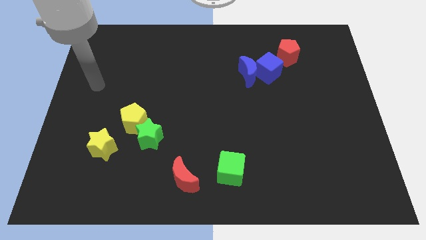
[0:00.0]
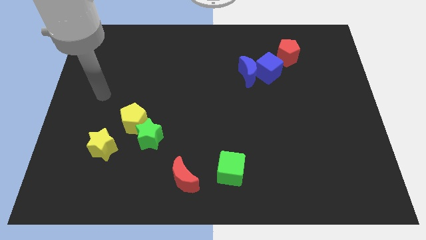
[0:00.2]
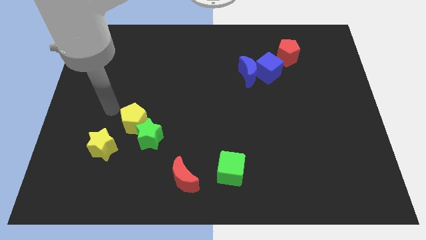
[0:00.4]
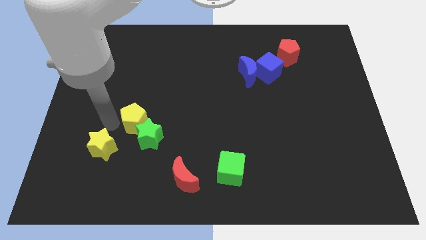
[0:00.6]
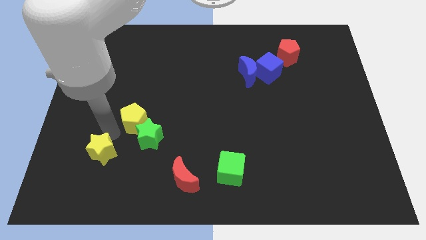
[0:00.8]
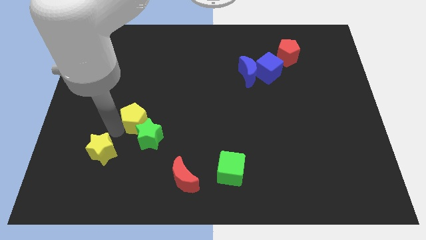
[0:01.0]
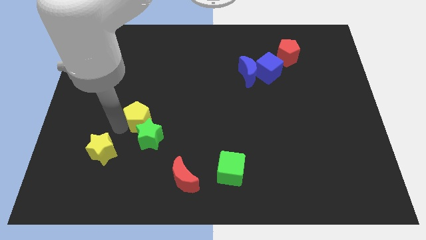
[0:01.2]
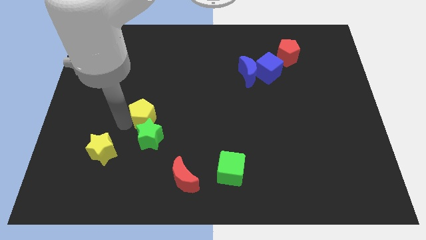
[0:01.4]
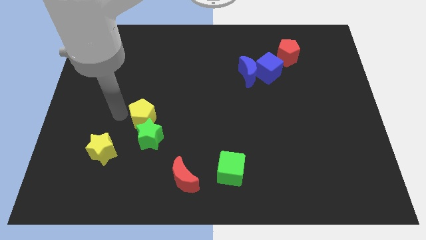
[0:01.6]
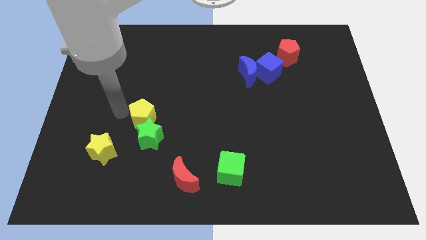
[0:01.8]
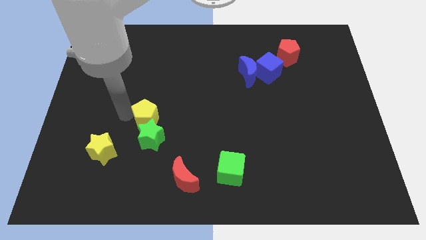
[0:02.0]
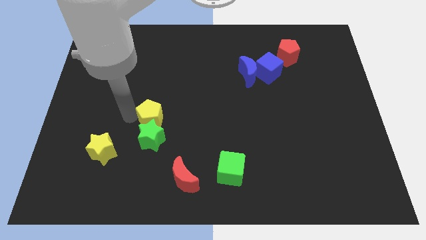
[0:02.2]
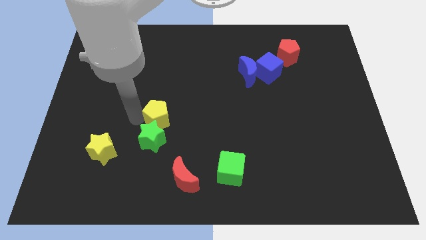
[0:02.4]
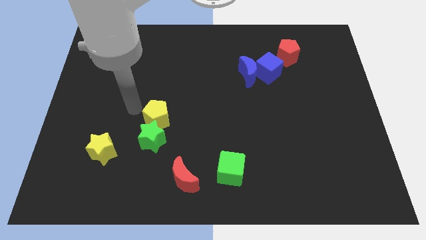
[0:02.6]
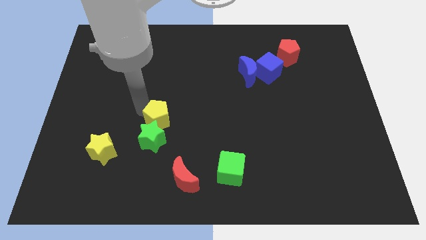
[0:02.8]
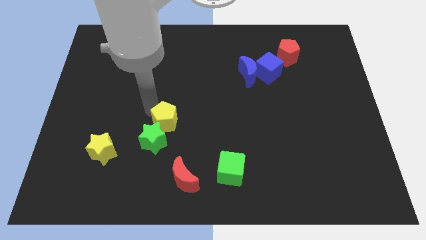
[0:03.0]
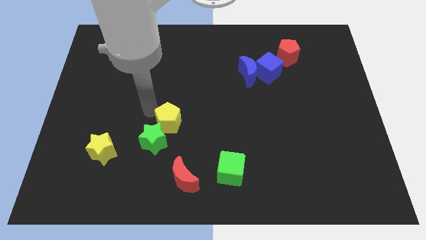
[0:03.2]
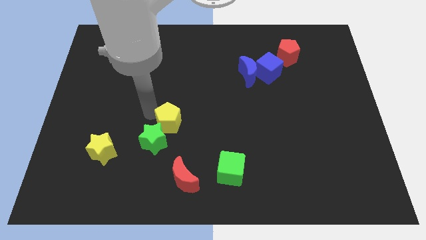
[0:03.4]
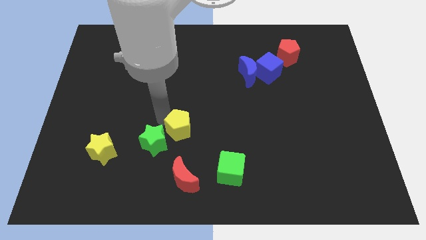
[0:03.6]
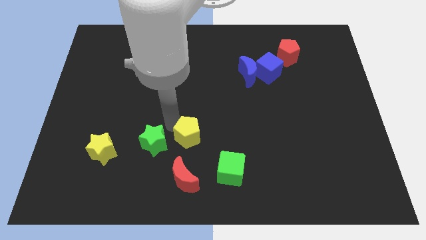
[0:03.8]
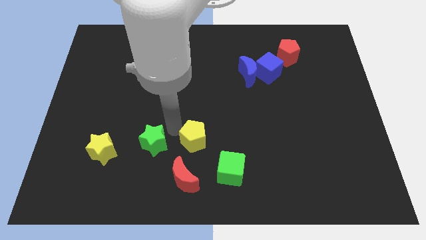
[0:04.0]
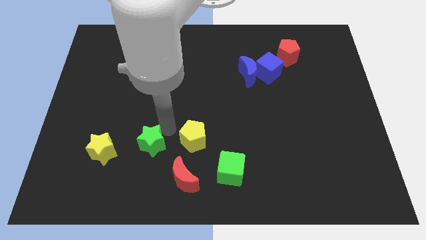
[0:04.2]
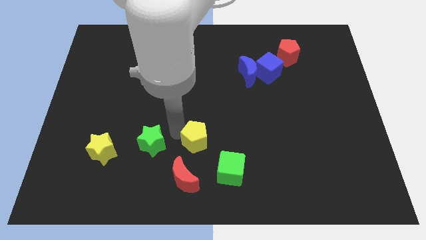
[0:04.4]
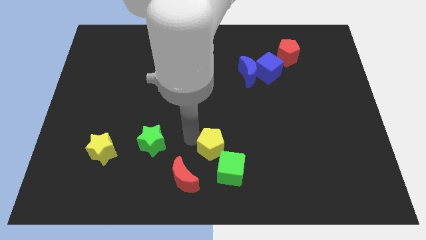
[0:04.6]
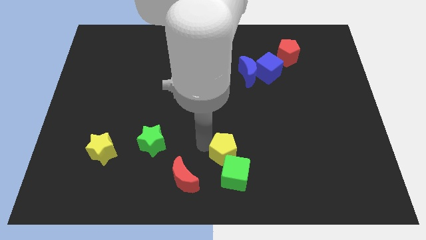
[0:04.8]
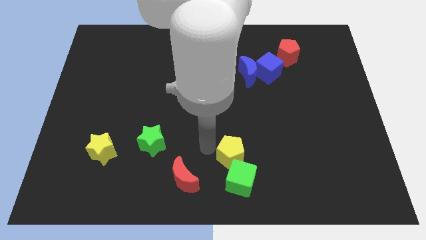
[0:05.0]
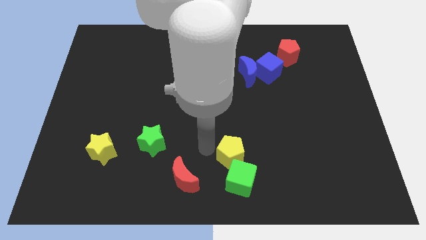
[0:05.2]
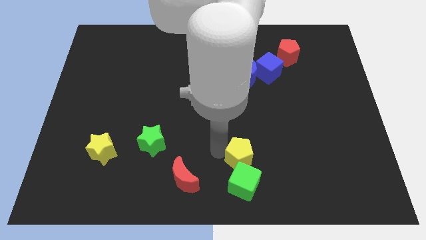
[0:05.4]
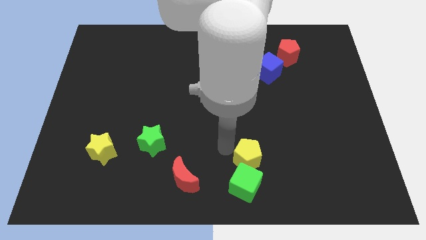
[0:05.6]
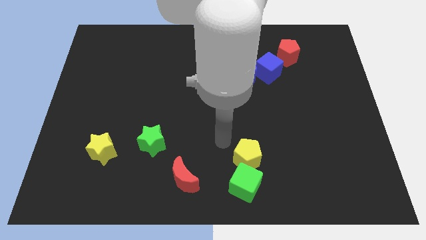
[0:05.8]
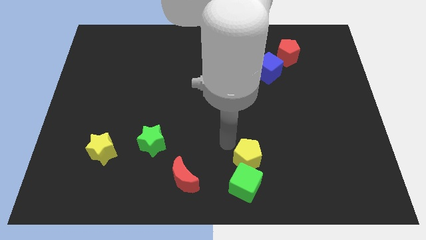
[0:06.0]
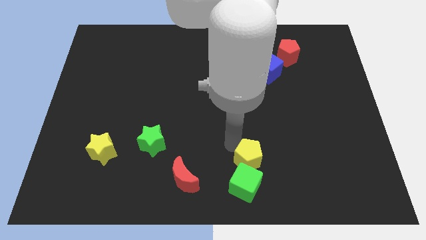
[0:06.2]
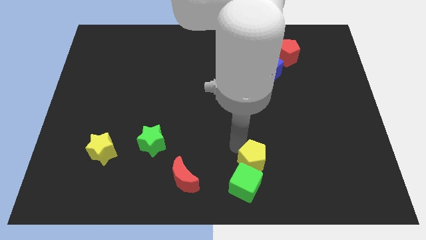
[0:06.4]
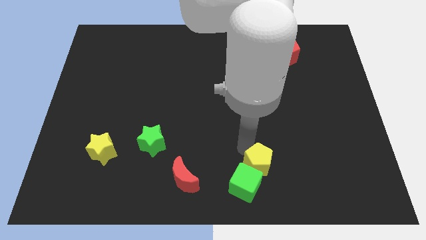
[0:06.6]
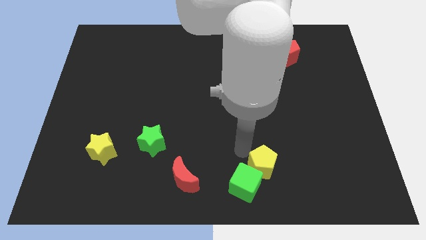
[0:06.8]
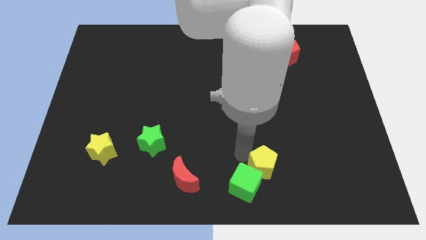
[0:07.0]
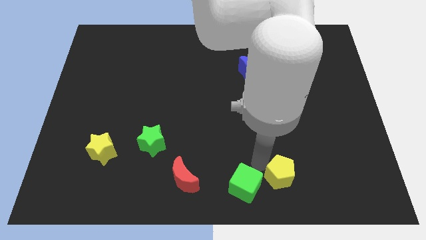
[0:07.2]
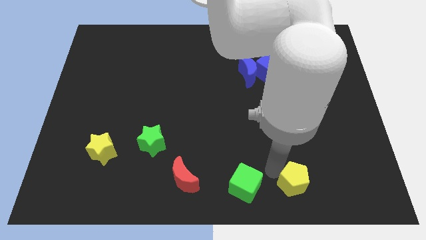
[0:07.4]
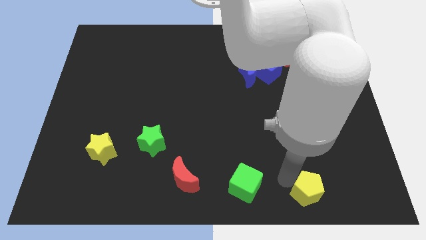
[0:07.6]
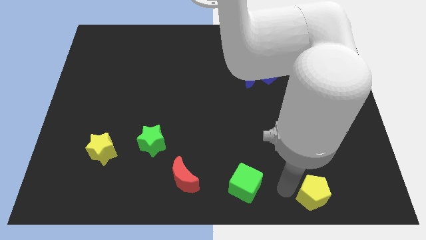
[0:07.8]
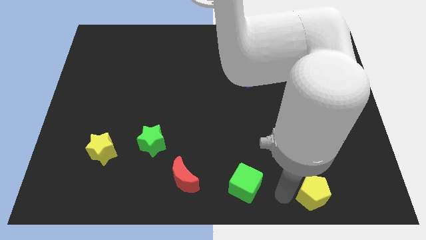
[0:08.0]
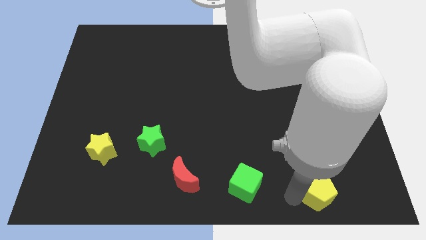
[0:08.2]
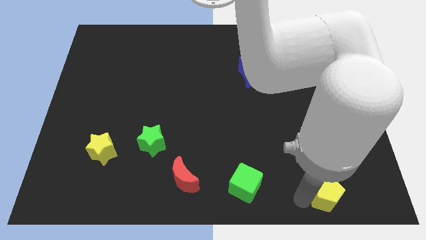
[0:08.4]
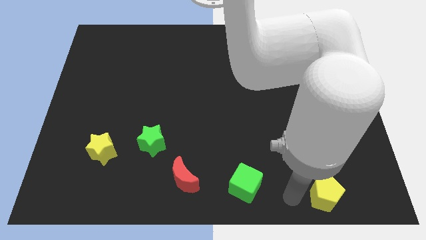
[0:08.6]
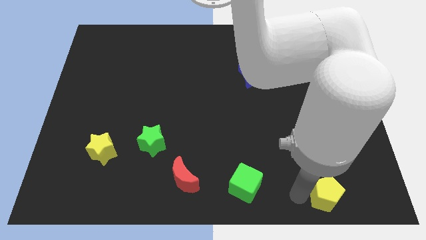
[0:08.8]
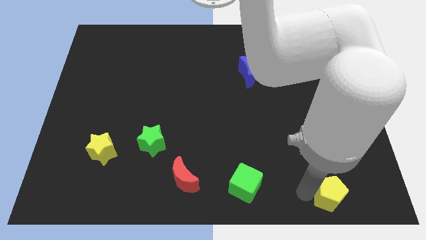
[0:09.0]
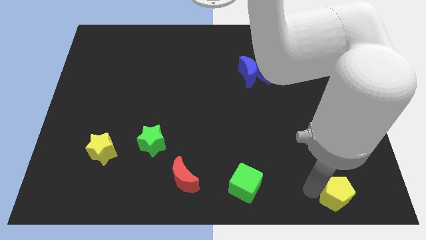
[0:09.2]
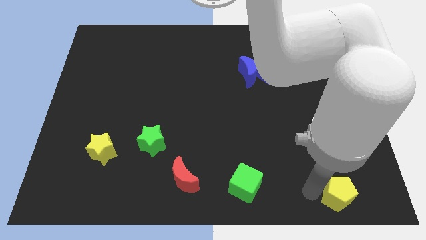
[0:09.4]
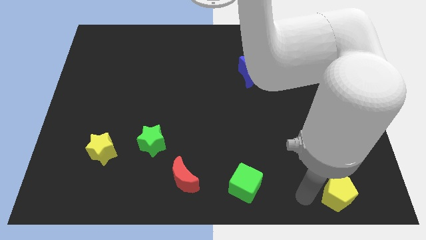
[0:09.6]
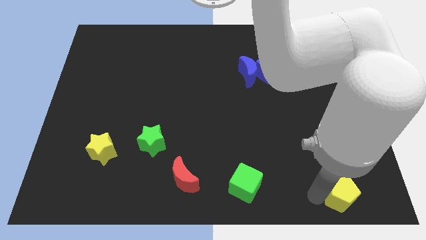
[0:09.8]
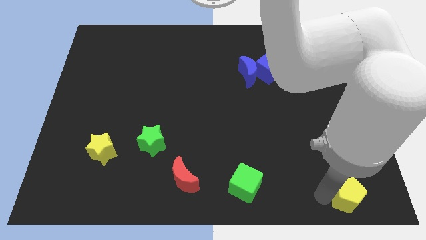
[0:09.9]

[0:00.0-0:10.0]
move the yellow pentagon to the lower right corner

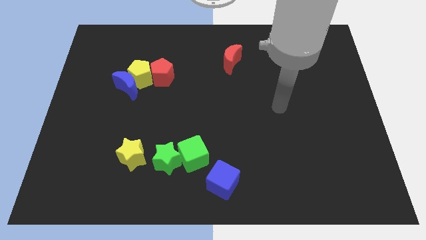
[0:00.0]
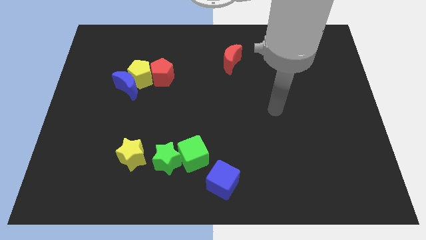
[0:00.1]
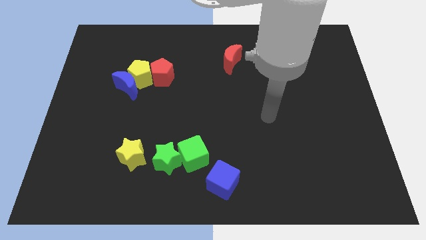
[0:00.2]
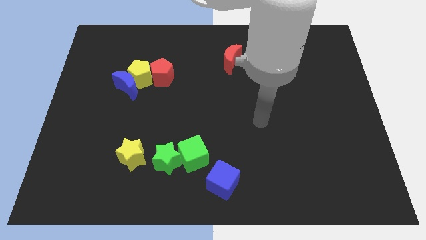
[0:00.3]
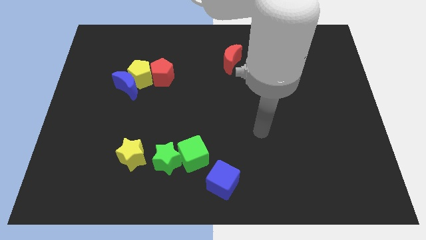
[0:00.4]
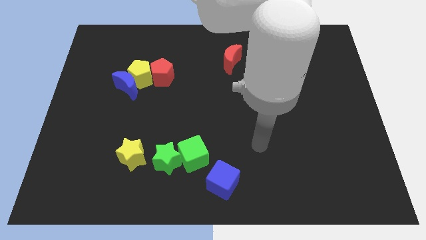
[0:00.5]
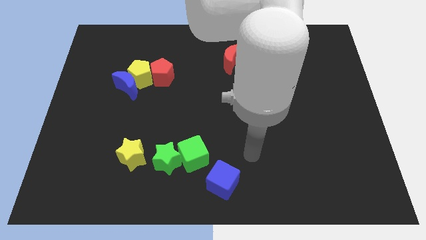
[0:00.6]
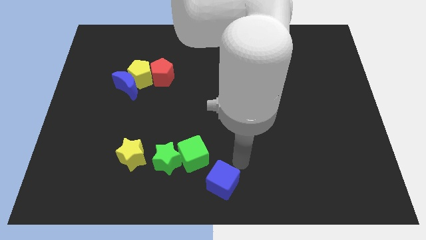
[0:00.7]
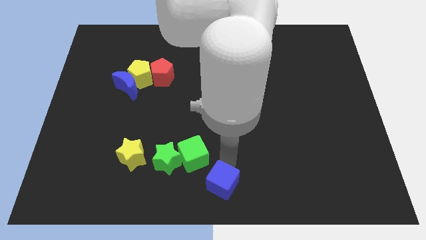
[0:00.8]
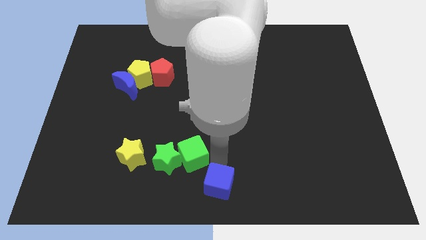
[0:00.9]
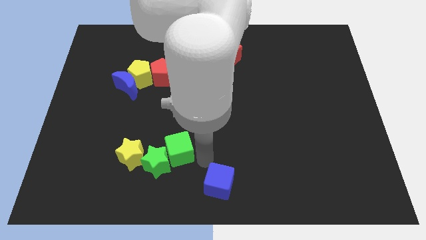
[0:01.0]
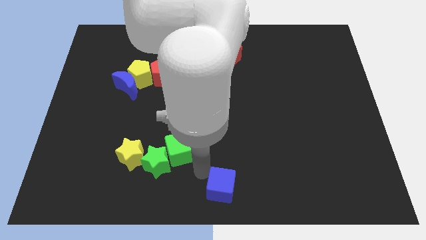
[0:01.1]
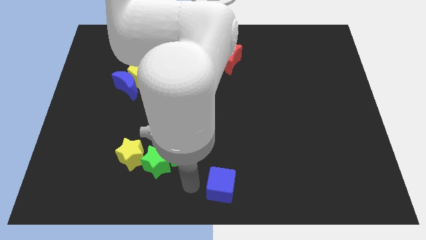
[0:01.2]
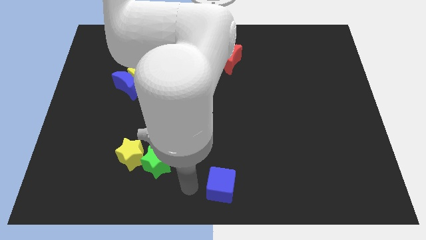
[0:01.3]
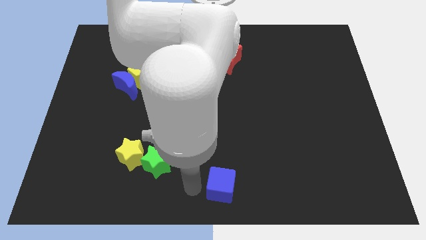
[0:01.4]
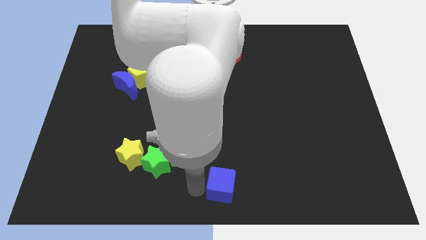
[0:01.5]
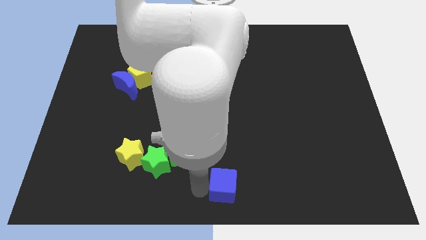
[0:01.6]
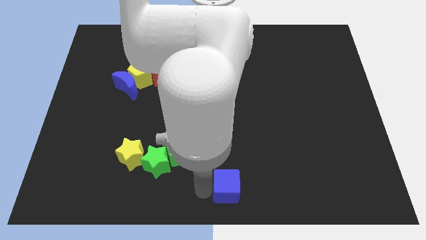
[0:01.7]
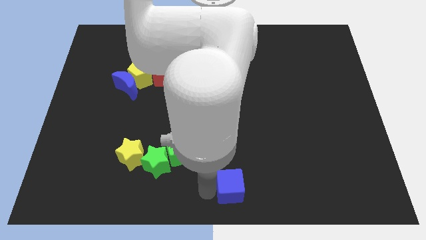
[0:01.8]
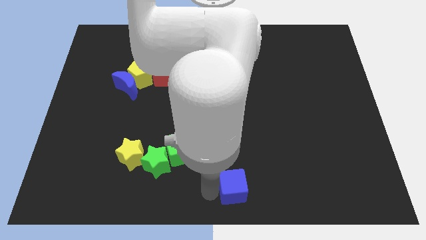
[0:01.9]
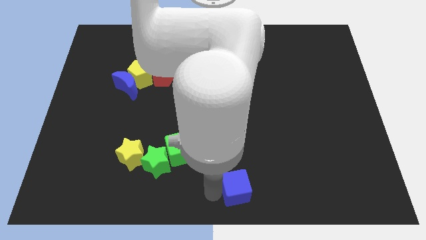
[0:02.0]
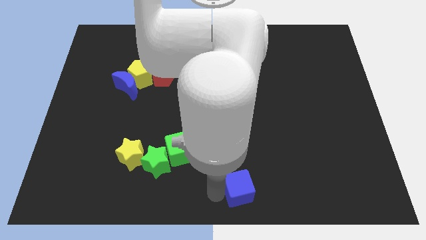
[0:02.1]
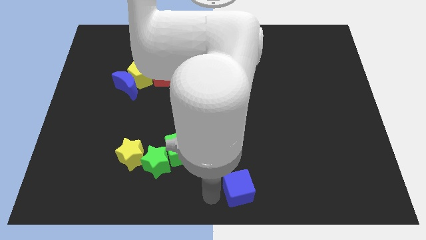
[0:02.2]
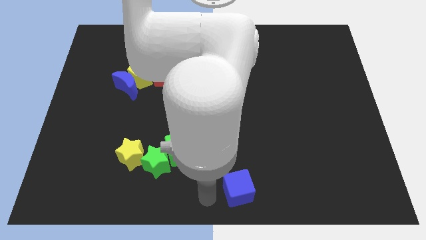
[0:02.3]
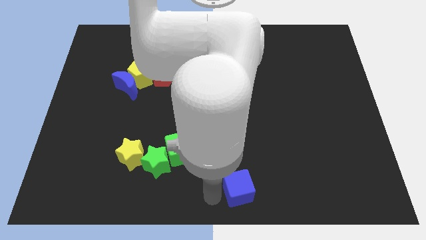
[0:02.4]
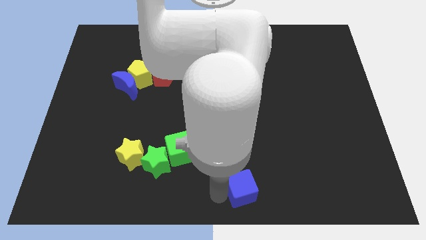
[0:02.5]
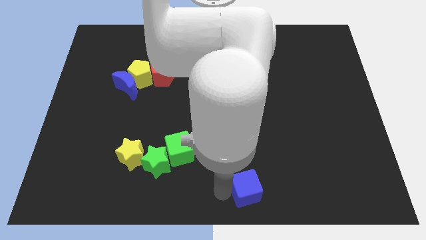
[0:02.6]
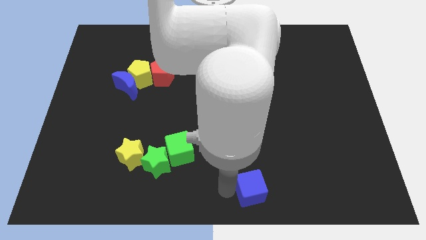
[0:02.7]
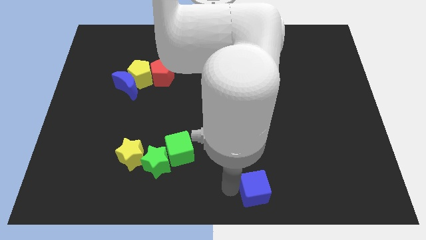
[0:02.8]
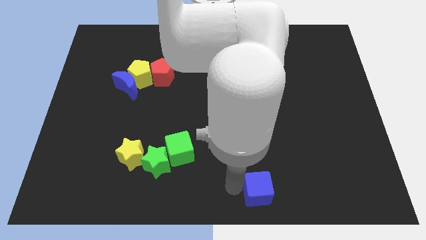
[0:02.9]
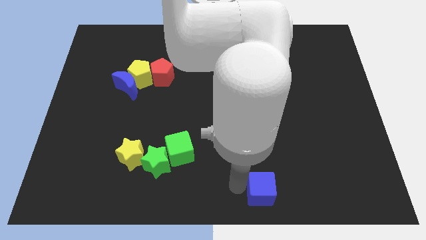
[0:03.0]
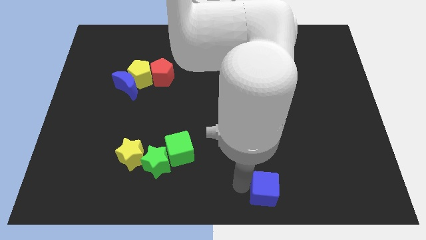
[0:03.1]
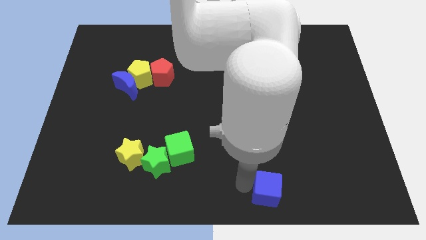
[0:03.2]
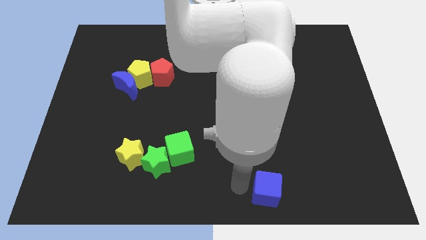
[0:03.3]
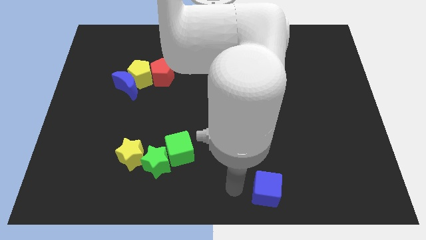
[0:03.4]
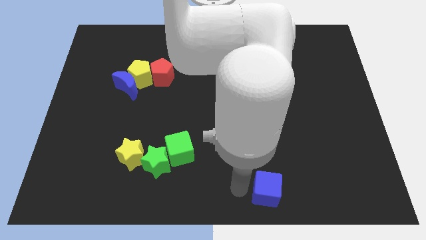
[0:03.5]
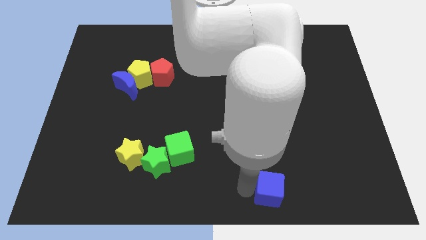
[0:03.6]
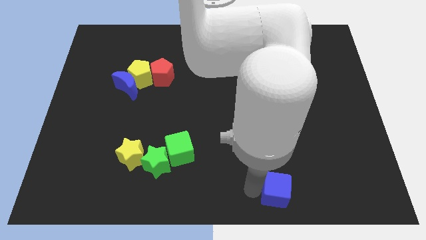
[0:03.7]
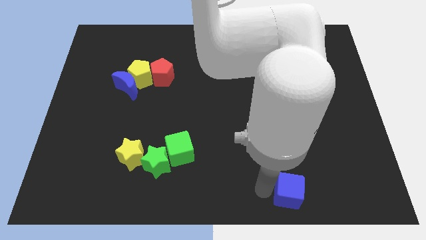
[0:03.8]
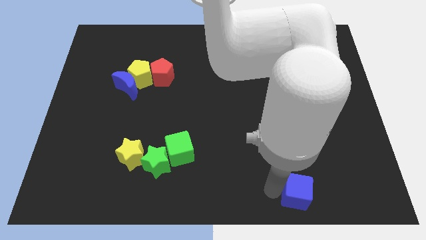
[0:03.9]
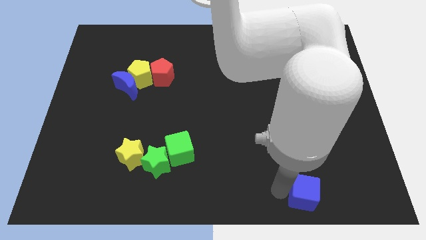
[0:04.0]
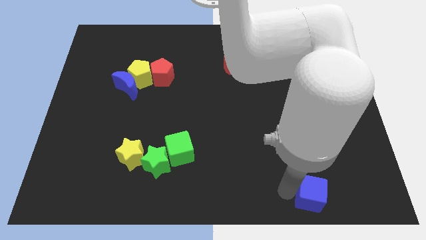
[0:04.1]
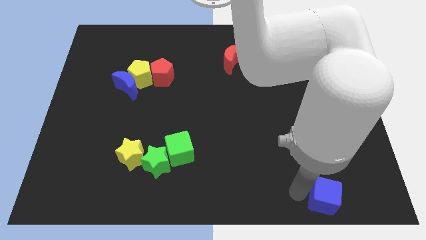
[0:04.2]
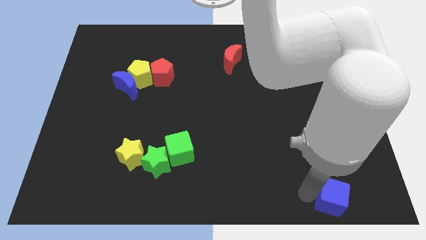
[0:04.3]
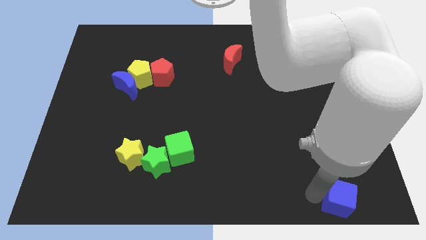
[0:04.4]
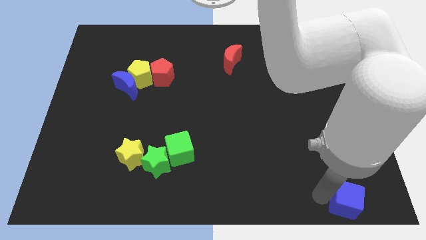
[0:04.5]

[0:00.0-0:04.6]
move the blue cube to the bottom right corner
